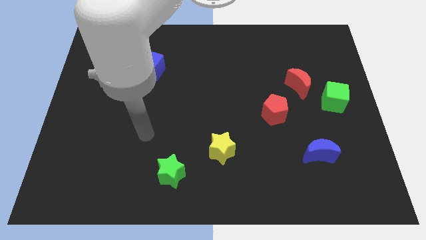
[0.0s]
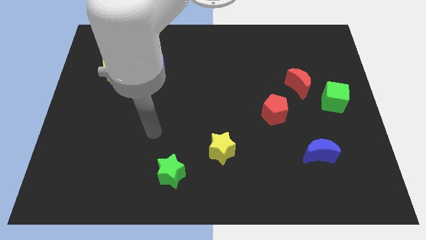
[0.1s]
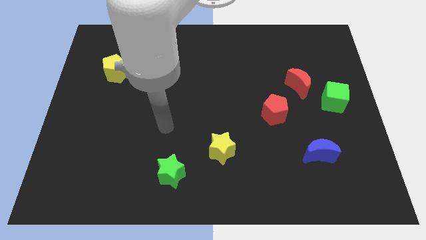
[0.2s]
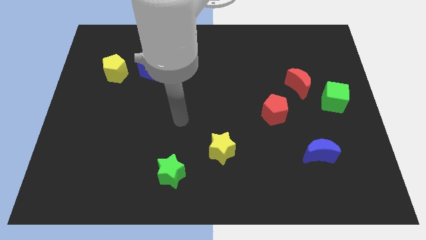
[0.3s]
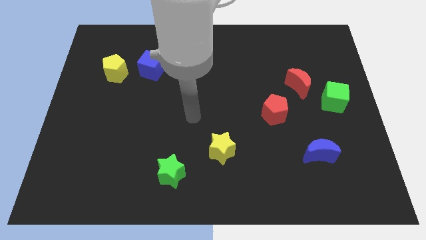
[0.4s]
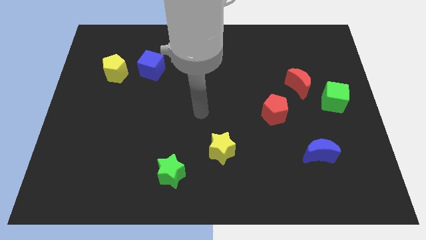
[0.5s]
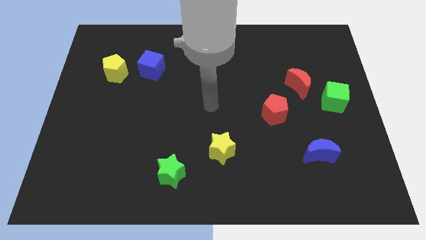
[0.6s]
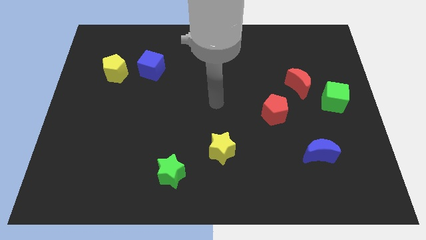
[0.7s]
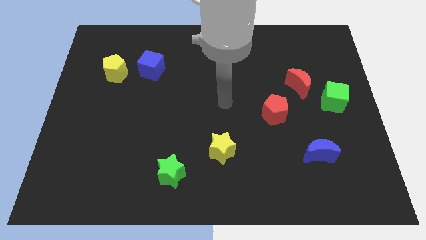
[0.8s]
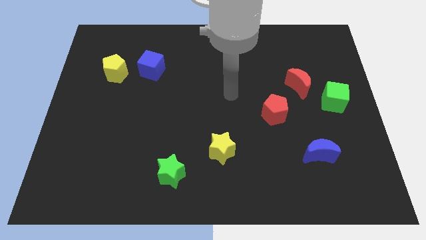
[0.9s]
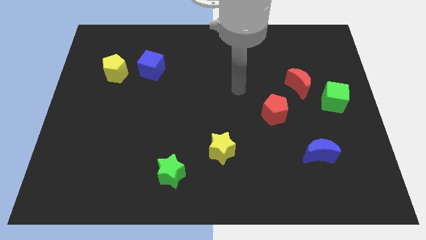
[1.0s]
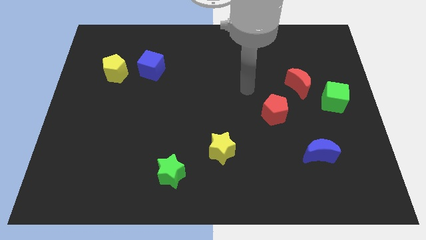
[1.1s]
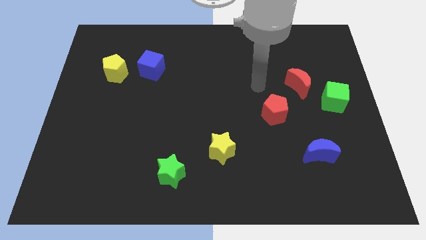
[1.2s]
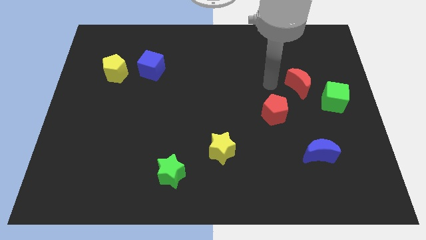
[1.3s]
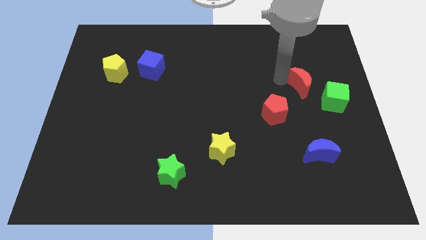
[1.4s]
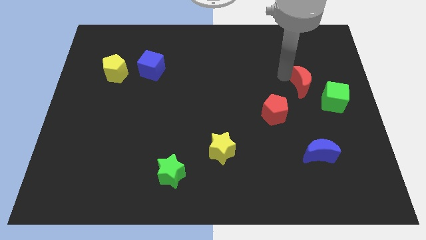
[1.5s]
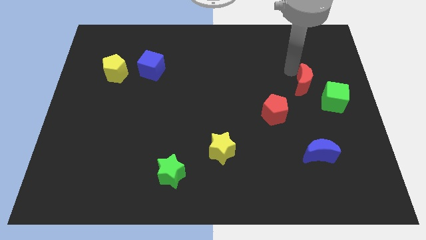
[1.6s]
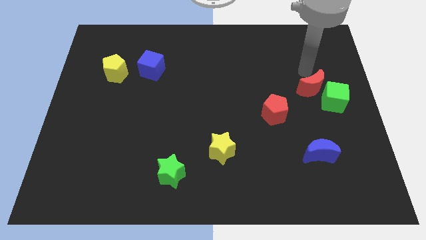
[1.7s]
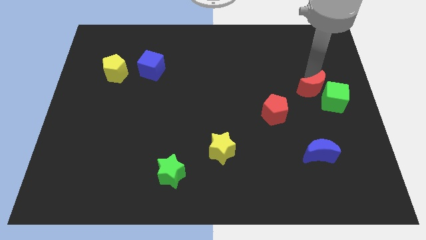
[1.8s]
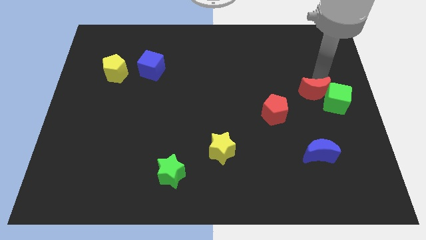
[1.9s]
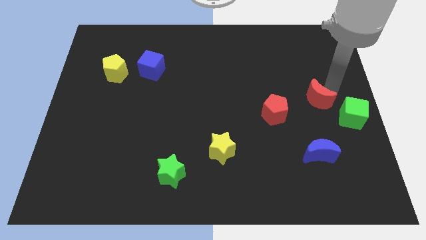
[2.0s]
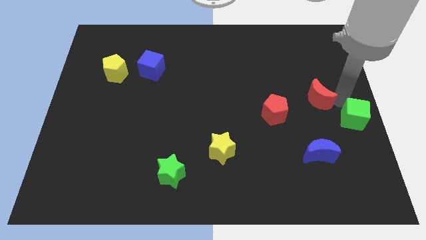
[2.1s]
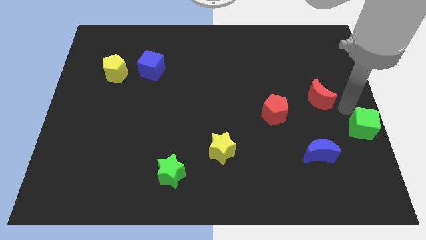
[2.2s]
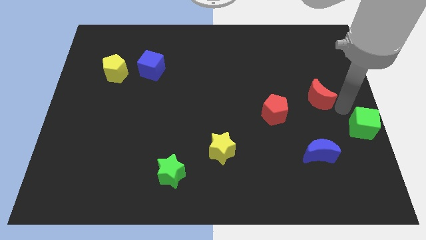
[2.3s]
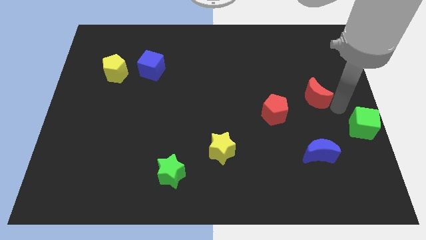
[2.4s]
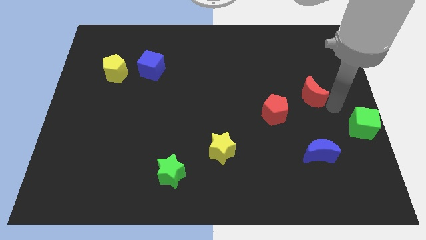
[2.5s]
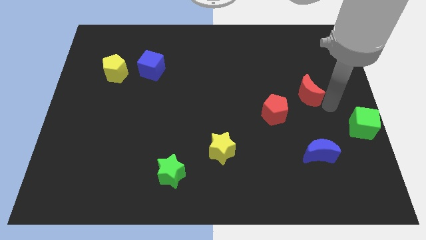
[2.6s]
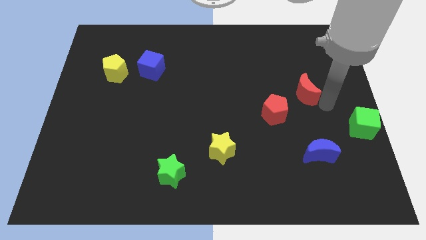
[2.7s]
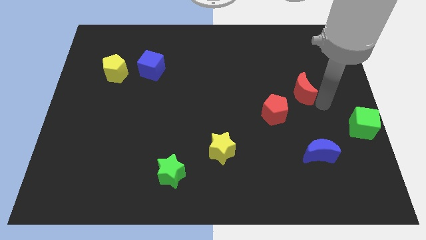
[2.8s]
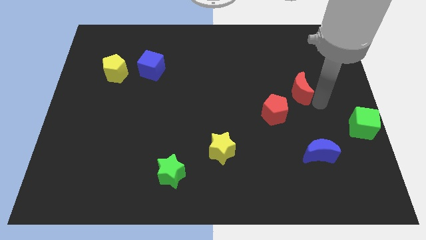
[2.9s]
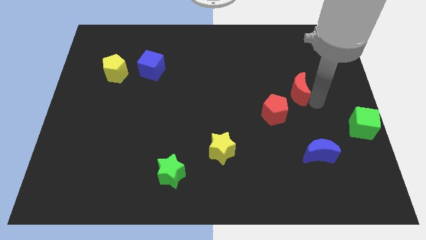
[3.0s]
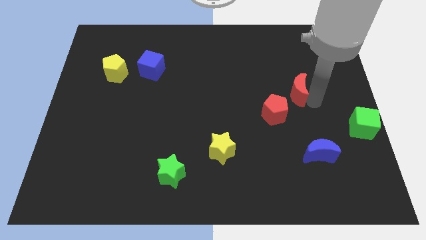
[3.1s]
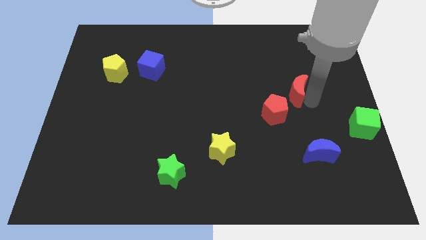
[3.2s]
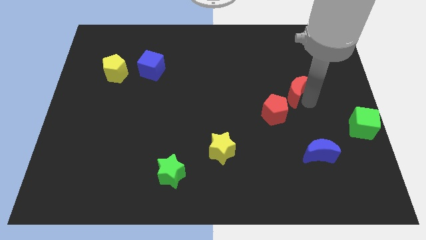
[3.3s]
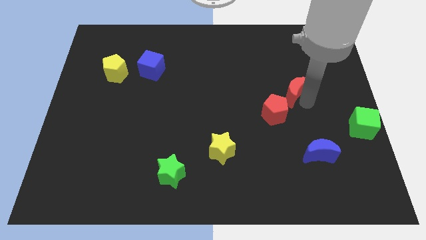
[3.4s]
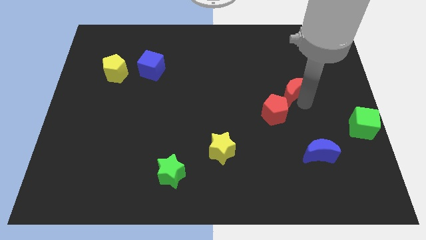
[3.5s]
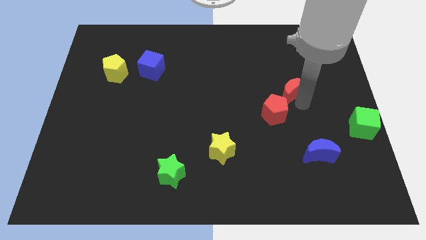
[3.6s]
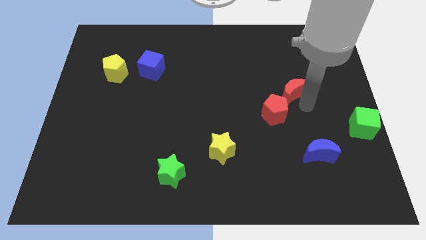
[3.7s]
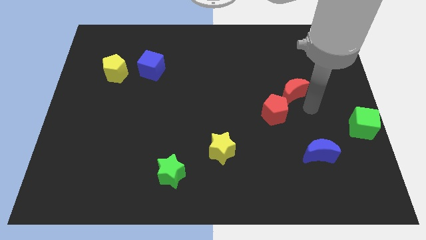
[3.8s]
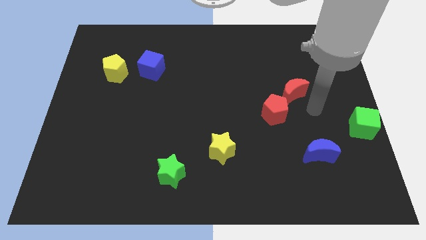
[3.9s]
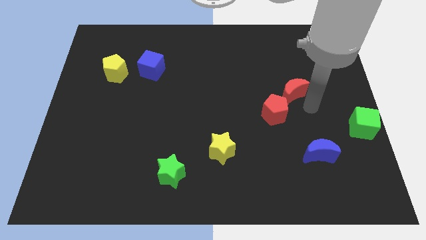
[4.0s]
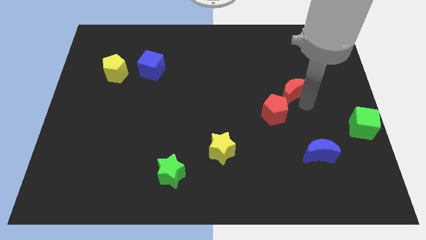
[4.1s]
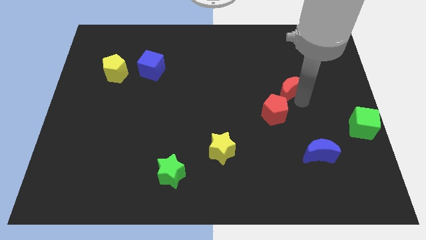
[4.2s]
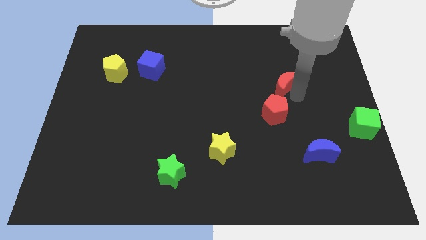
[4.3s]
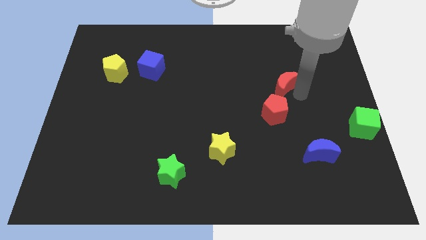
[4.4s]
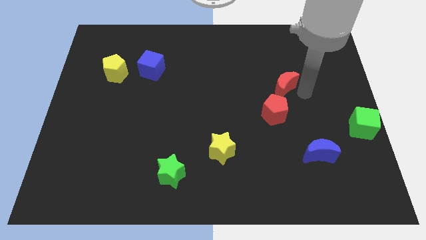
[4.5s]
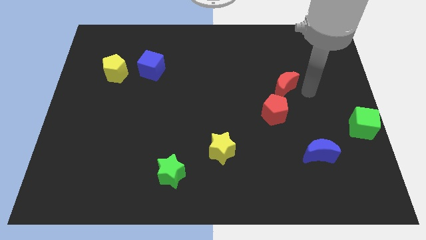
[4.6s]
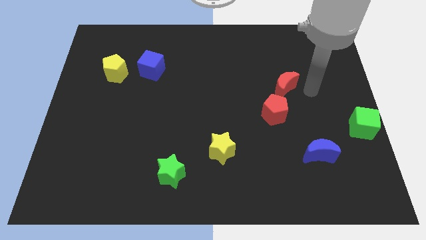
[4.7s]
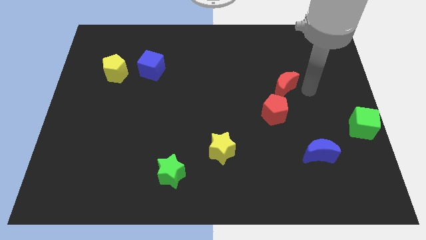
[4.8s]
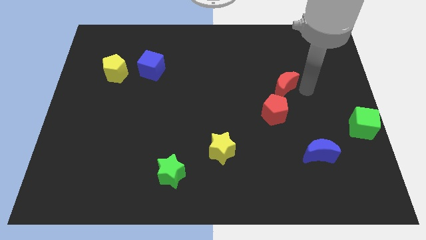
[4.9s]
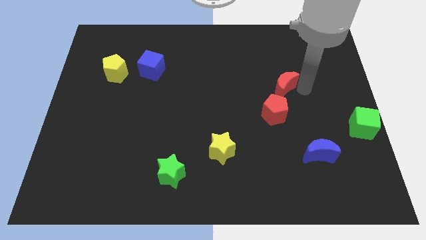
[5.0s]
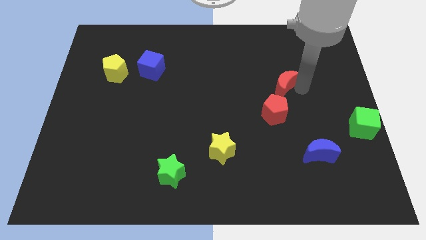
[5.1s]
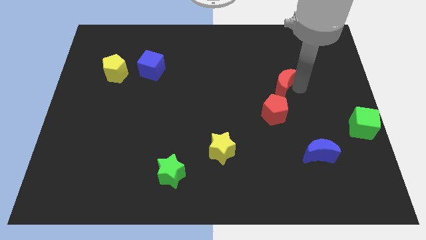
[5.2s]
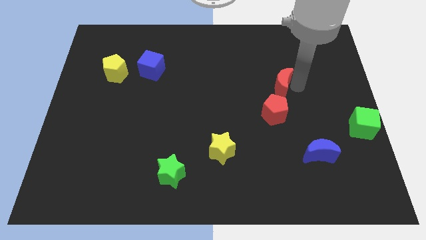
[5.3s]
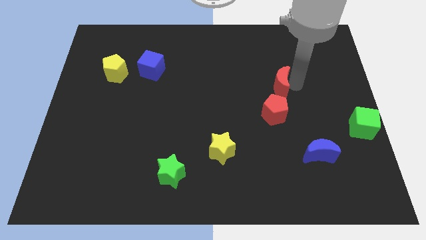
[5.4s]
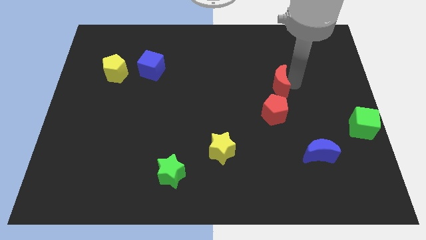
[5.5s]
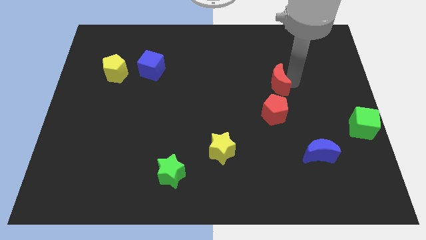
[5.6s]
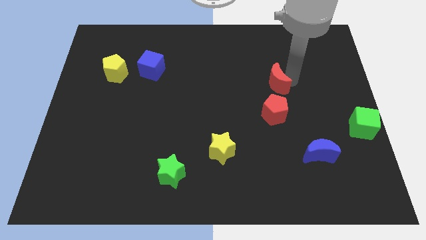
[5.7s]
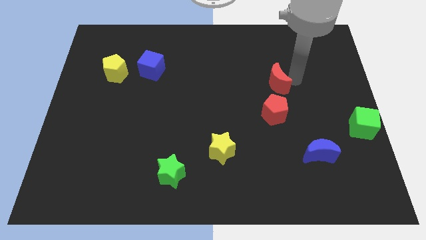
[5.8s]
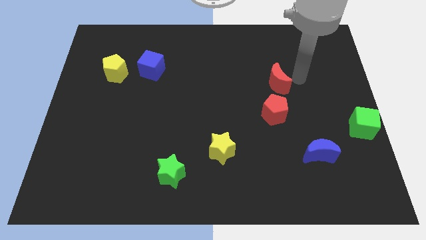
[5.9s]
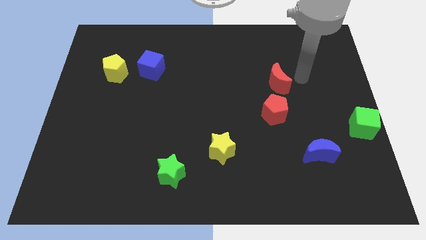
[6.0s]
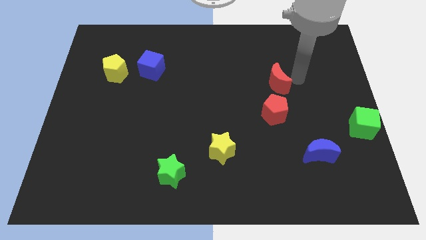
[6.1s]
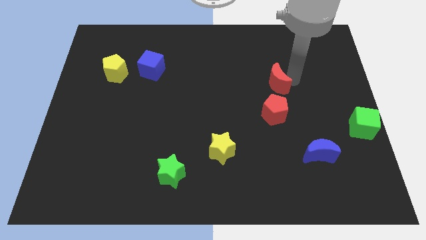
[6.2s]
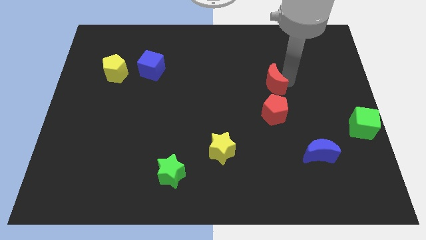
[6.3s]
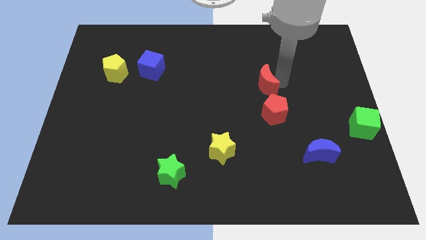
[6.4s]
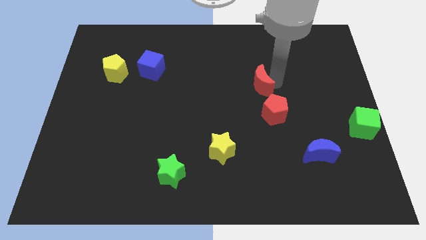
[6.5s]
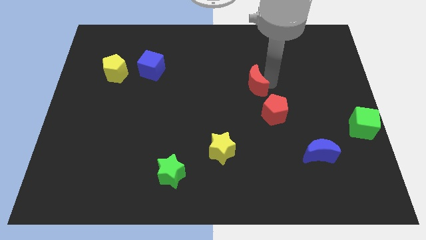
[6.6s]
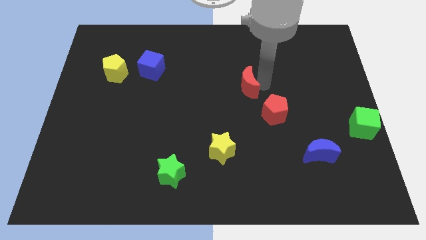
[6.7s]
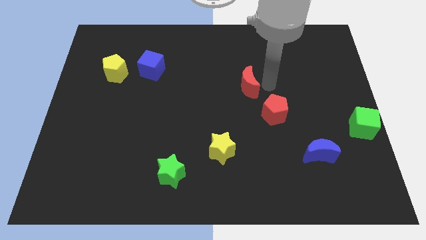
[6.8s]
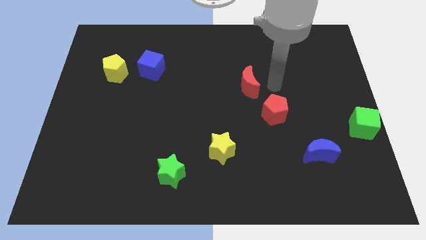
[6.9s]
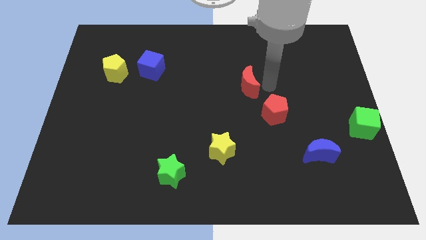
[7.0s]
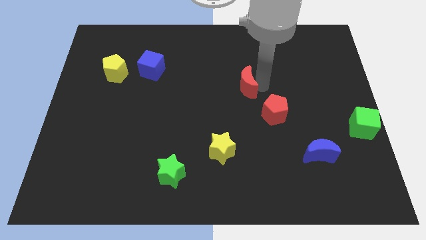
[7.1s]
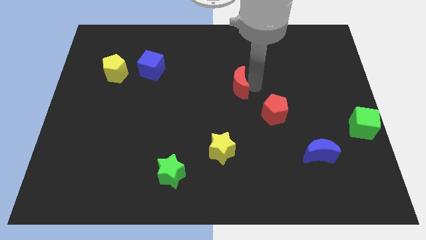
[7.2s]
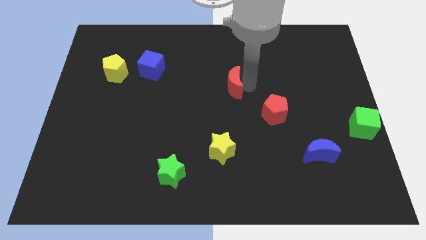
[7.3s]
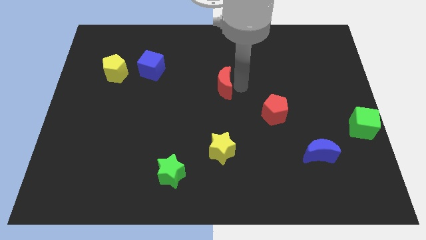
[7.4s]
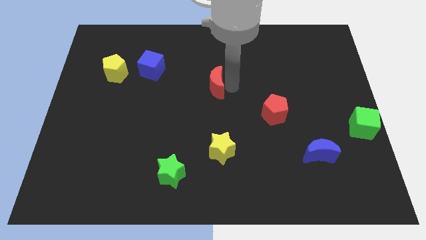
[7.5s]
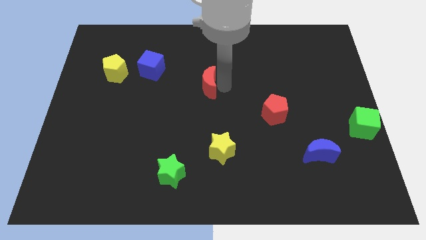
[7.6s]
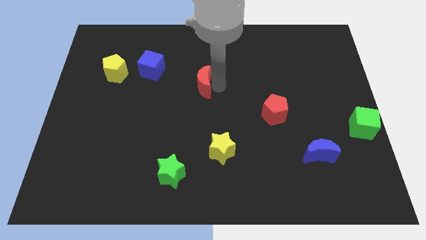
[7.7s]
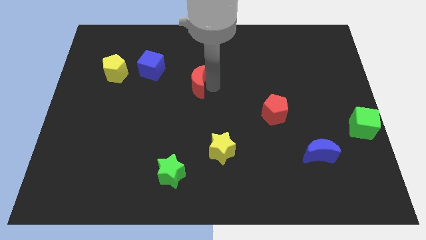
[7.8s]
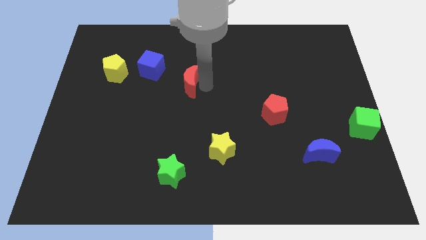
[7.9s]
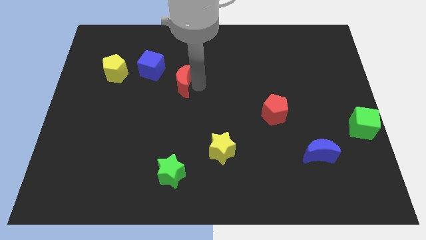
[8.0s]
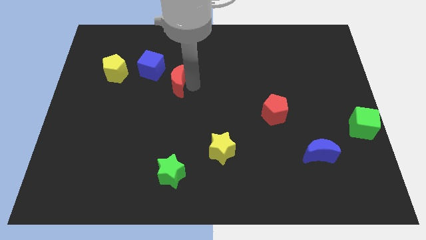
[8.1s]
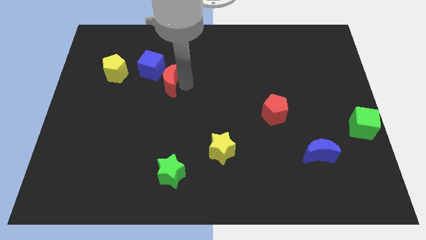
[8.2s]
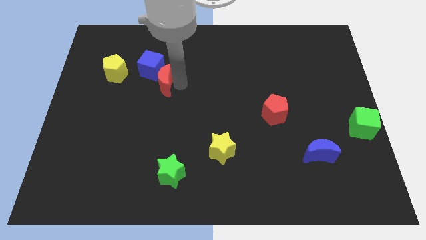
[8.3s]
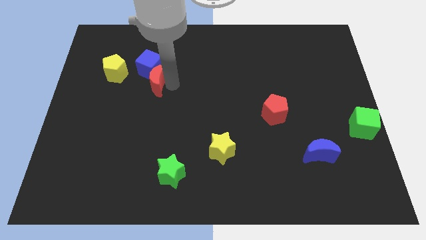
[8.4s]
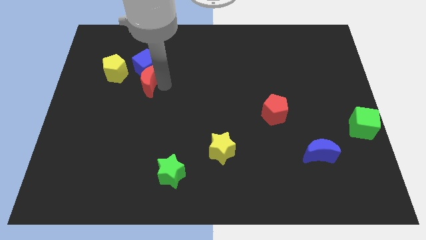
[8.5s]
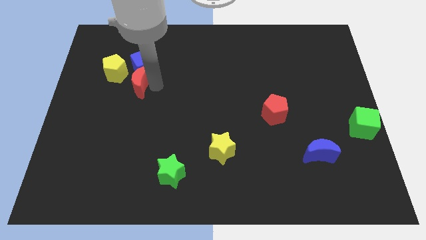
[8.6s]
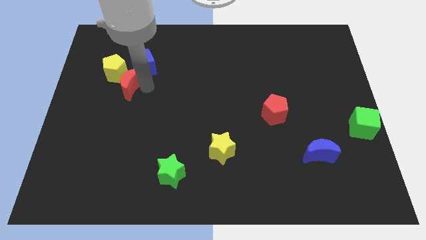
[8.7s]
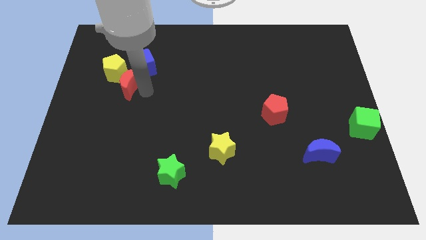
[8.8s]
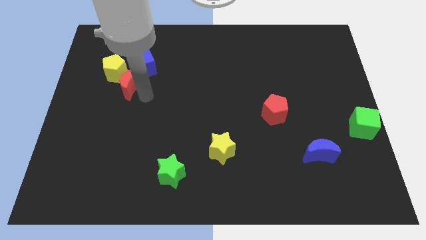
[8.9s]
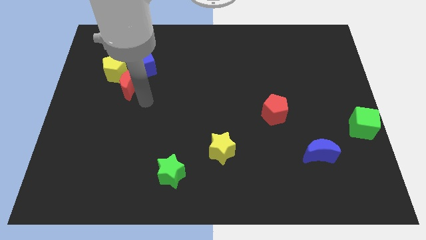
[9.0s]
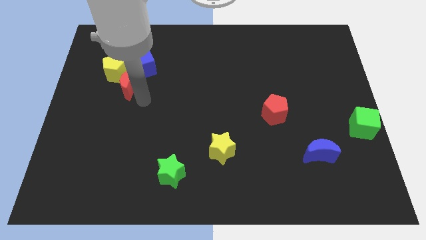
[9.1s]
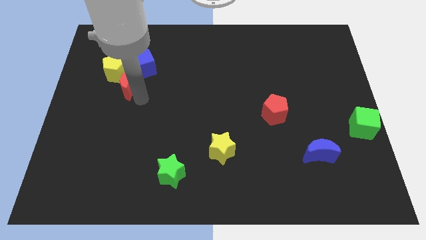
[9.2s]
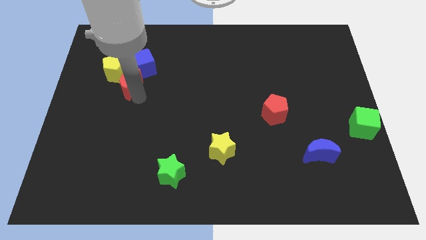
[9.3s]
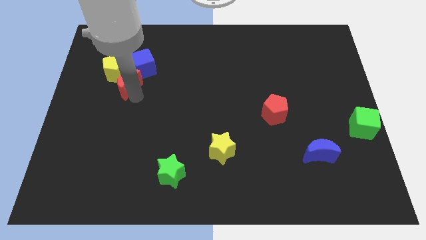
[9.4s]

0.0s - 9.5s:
put the red moon close to the yellow pentagon
